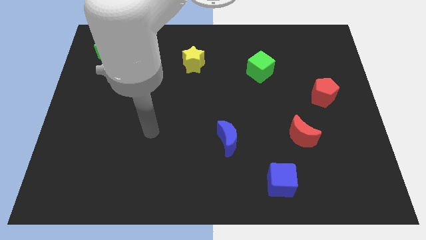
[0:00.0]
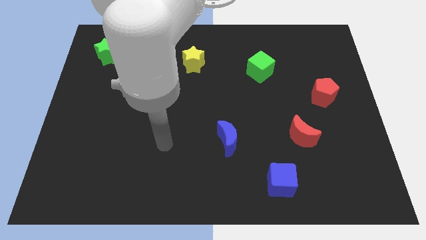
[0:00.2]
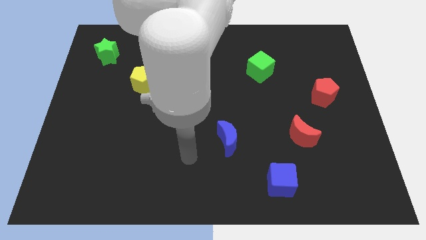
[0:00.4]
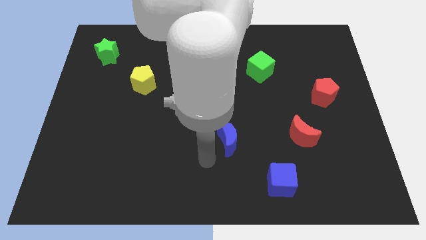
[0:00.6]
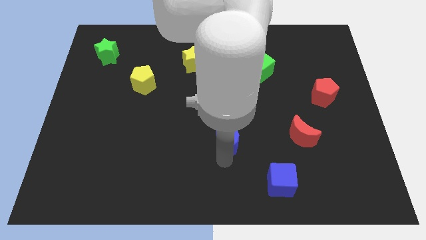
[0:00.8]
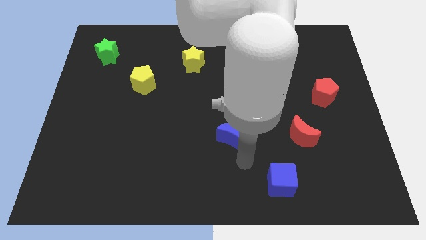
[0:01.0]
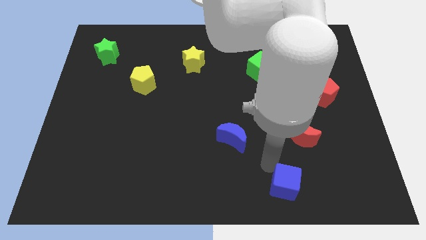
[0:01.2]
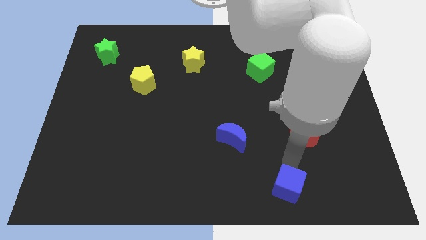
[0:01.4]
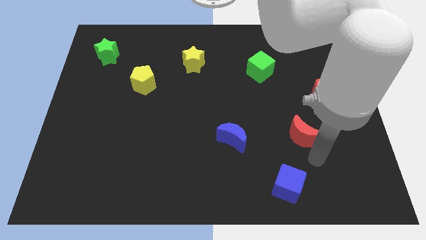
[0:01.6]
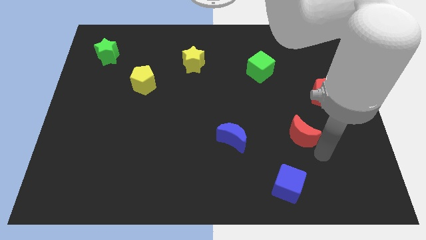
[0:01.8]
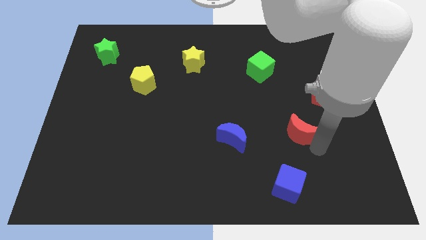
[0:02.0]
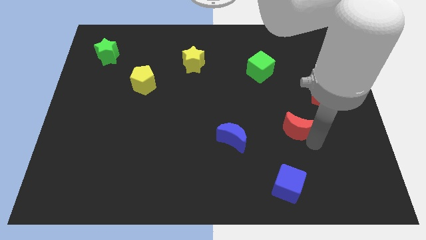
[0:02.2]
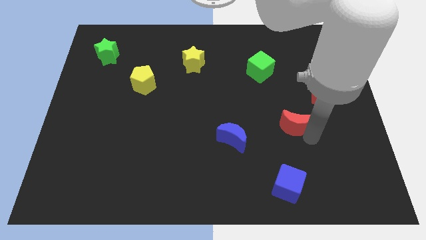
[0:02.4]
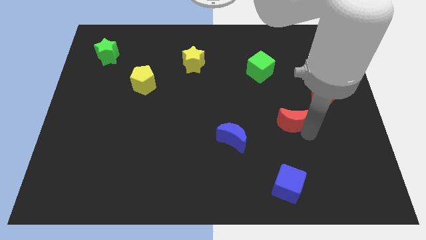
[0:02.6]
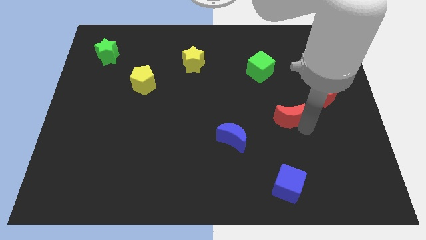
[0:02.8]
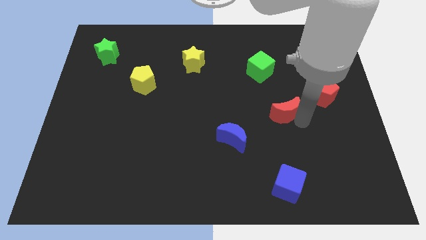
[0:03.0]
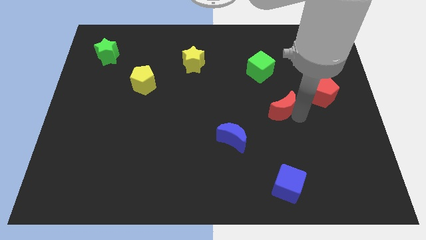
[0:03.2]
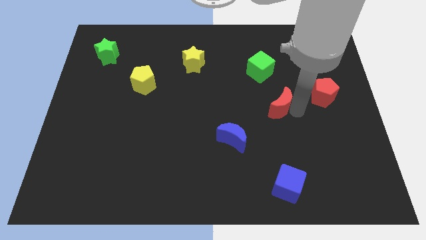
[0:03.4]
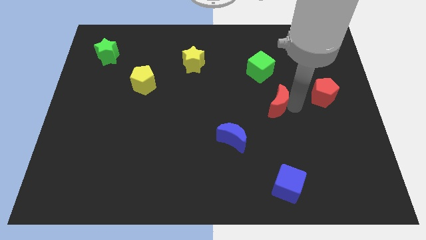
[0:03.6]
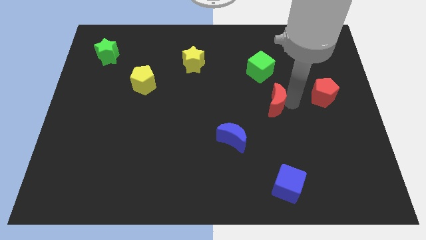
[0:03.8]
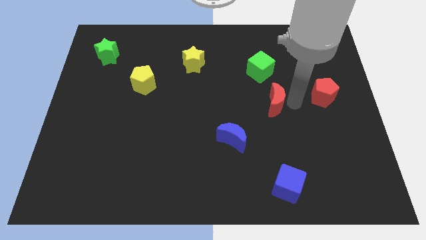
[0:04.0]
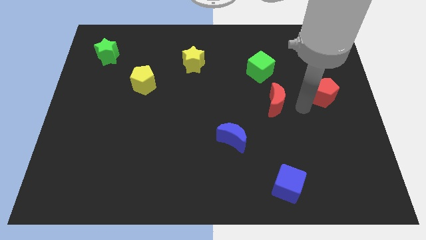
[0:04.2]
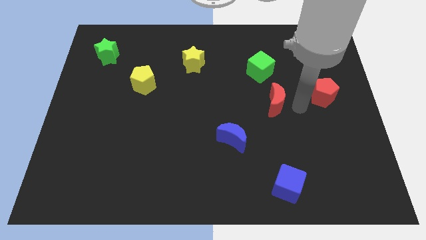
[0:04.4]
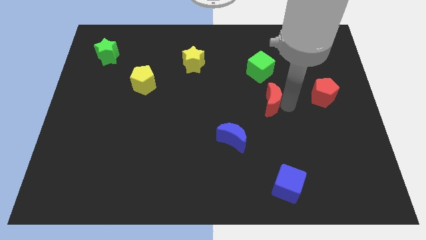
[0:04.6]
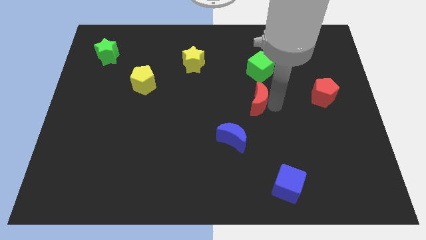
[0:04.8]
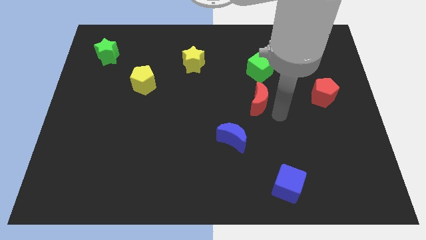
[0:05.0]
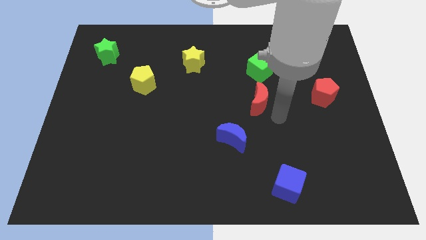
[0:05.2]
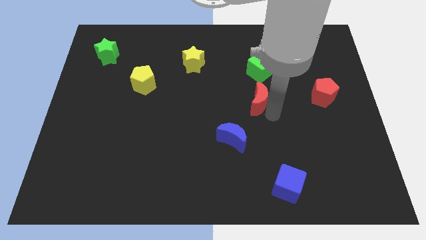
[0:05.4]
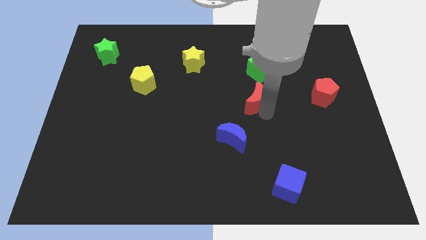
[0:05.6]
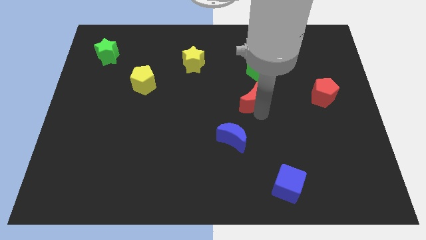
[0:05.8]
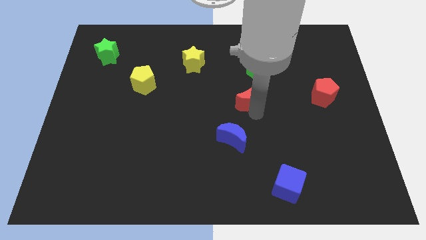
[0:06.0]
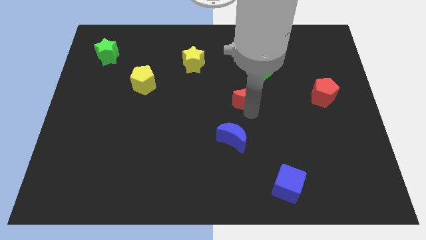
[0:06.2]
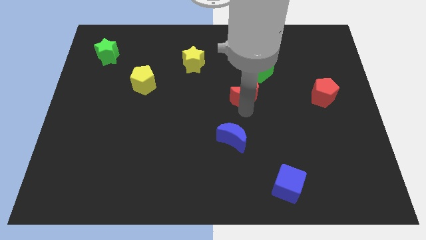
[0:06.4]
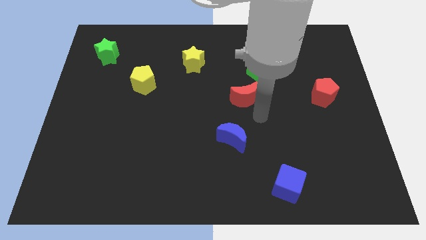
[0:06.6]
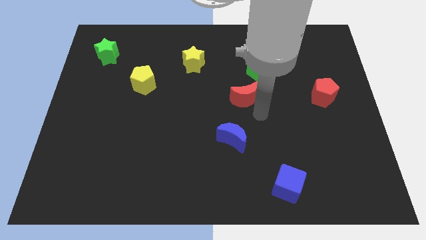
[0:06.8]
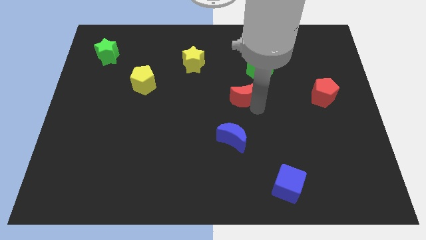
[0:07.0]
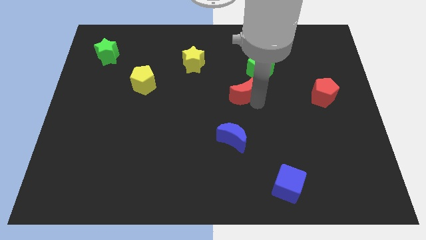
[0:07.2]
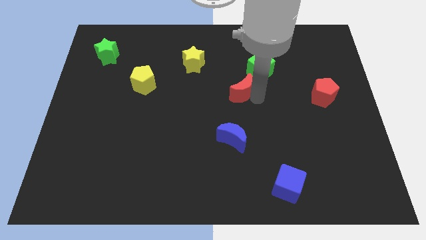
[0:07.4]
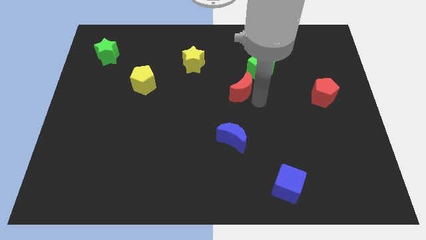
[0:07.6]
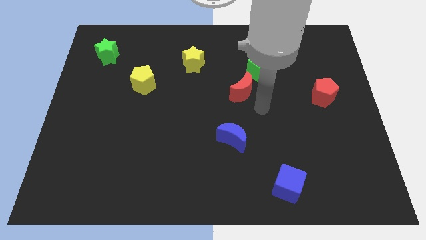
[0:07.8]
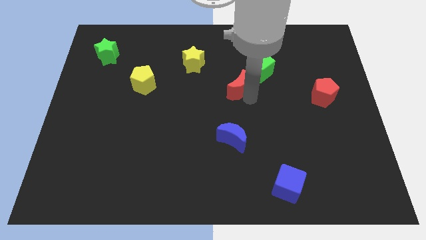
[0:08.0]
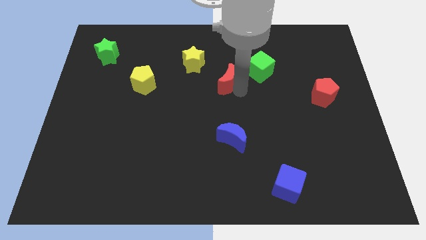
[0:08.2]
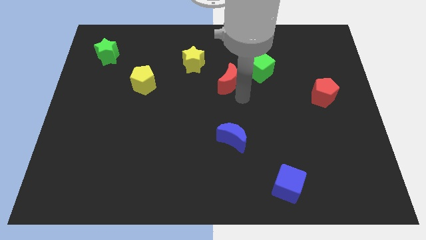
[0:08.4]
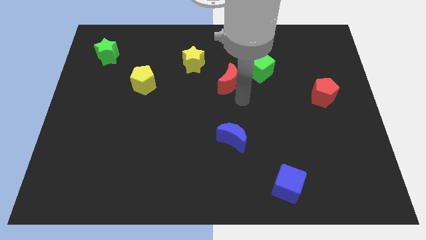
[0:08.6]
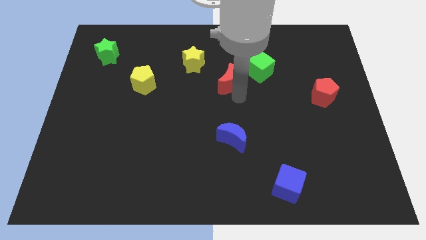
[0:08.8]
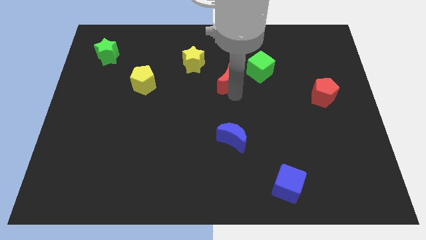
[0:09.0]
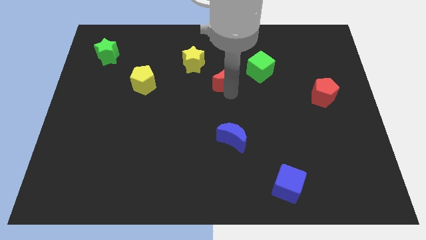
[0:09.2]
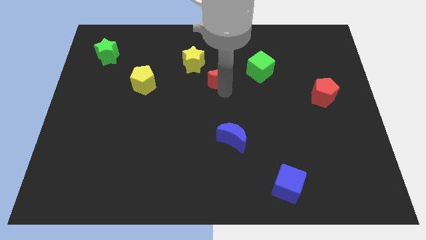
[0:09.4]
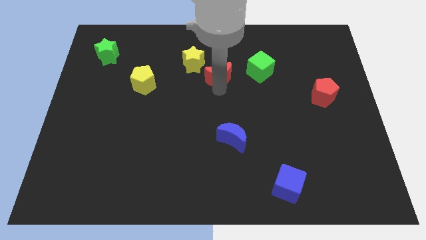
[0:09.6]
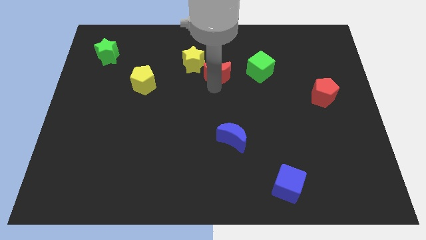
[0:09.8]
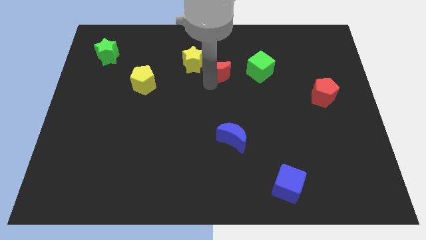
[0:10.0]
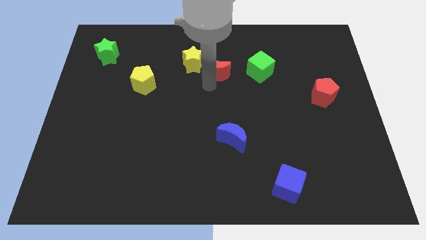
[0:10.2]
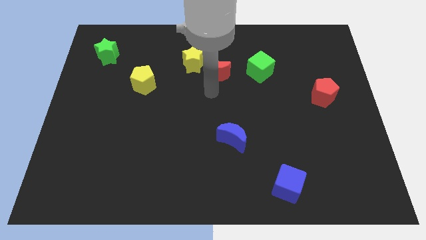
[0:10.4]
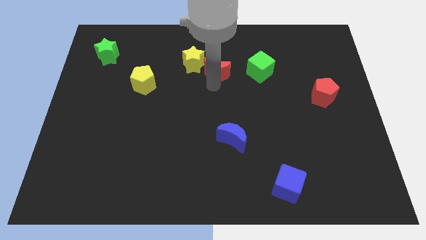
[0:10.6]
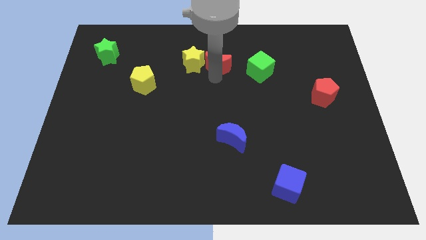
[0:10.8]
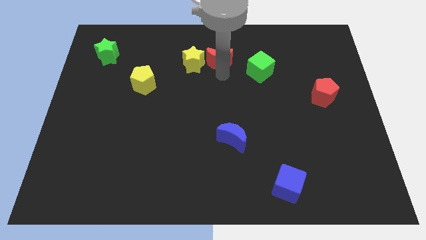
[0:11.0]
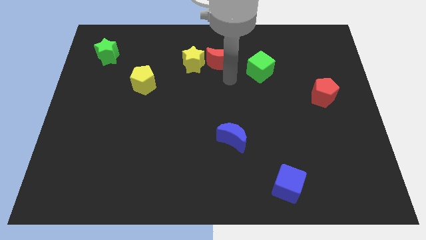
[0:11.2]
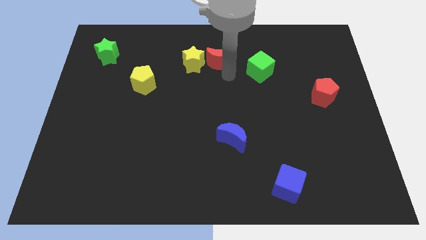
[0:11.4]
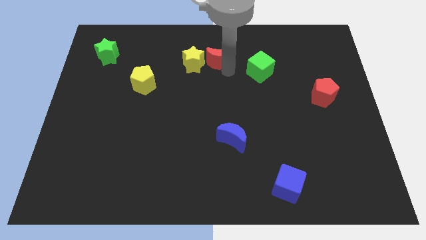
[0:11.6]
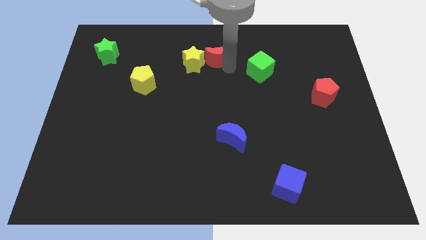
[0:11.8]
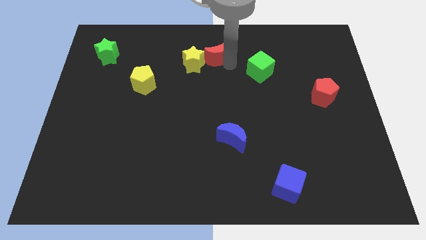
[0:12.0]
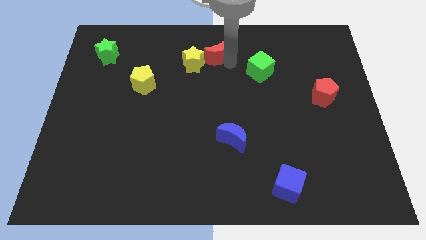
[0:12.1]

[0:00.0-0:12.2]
slide the red moon to the top

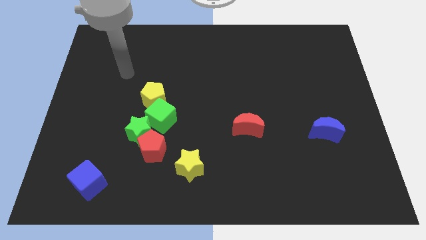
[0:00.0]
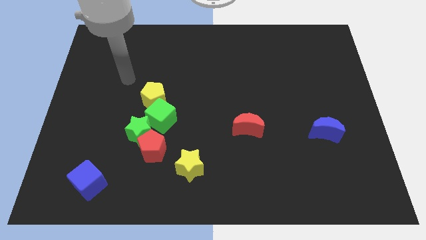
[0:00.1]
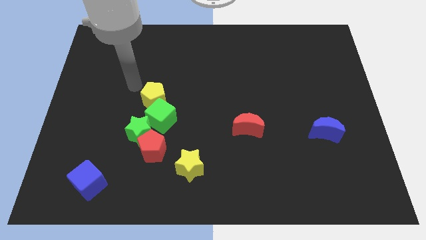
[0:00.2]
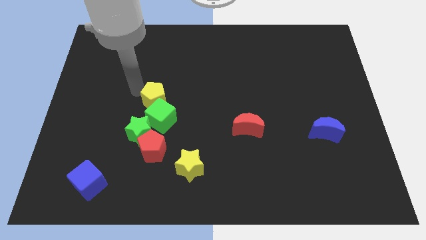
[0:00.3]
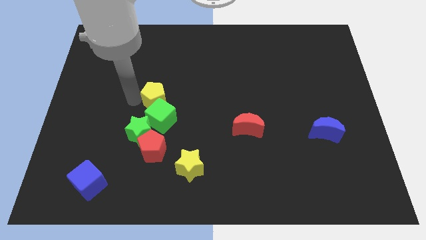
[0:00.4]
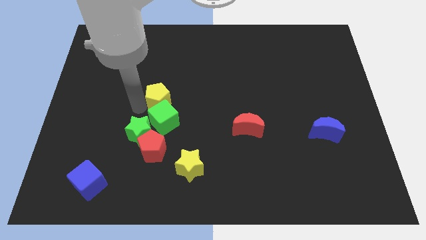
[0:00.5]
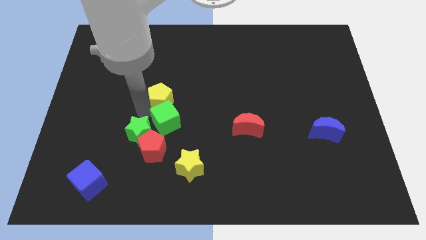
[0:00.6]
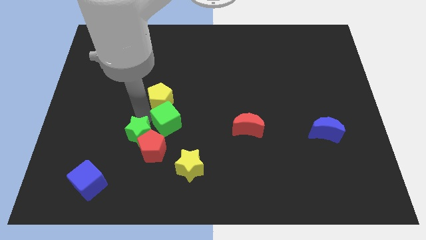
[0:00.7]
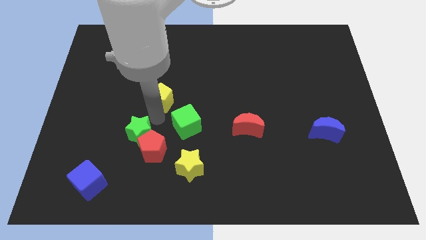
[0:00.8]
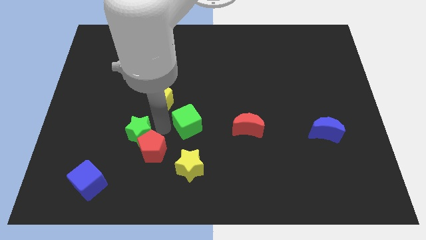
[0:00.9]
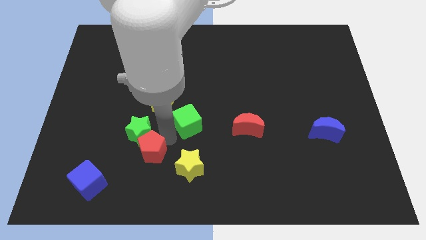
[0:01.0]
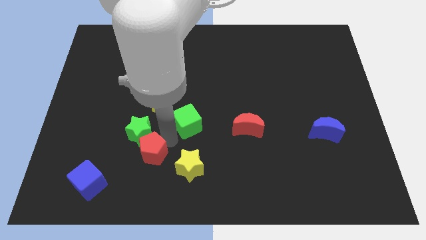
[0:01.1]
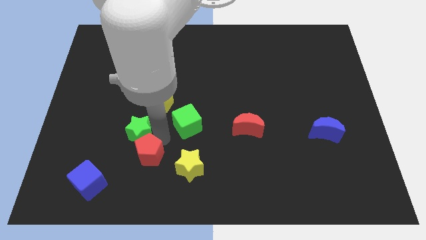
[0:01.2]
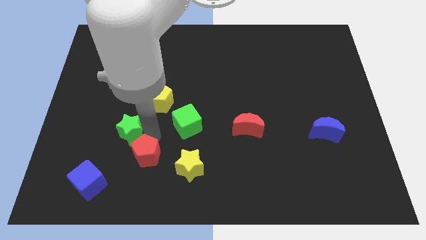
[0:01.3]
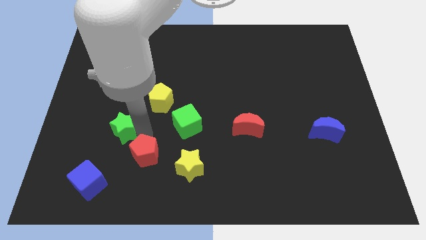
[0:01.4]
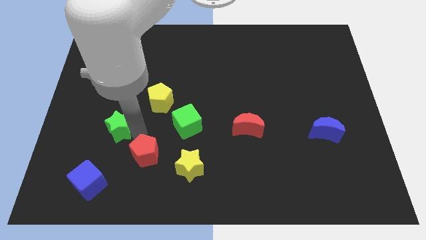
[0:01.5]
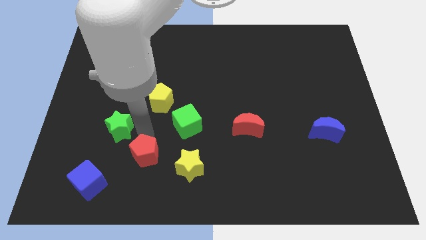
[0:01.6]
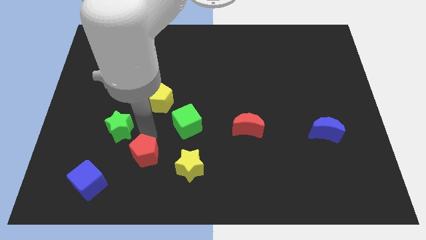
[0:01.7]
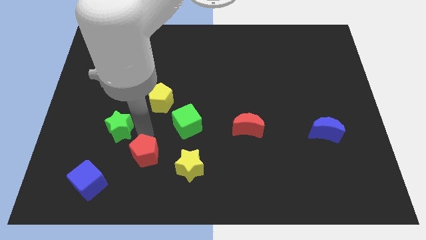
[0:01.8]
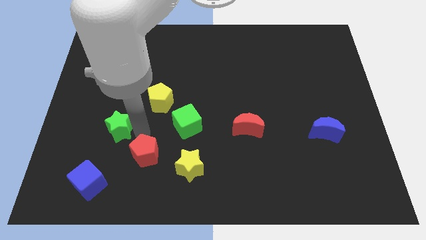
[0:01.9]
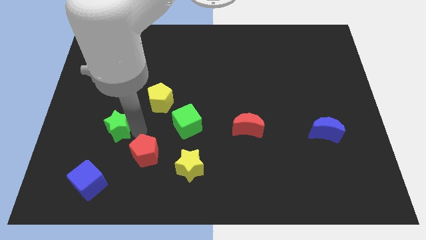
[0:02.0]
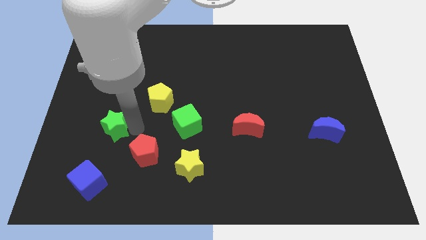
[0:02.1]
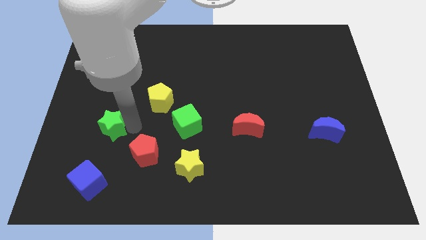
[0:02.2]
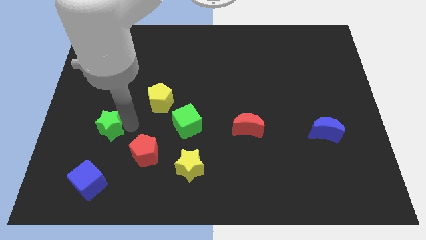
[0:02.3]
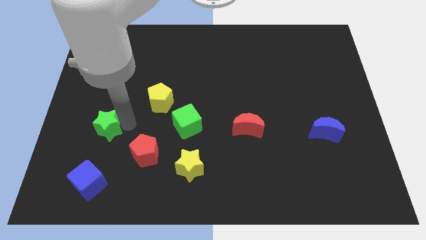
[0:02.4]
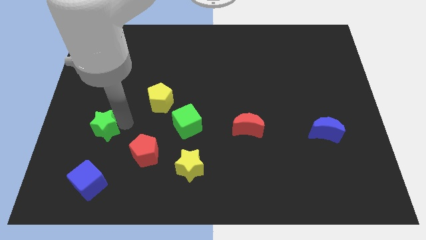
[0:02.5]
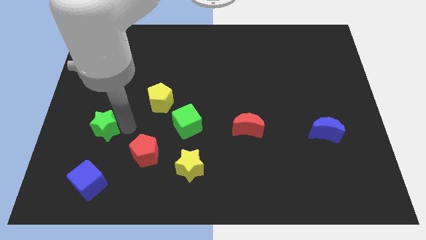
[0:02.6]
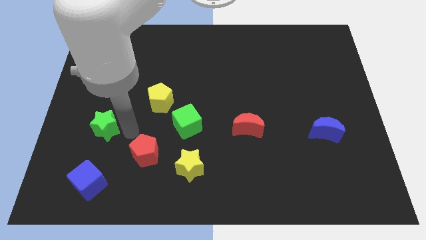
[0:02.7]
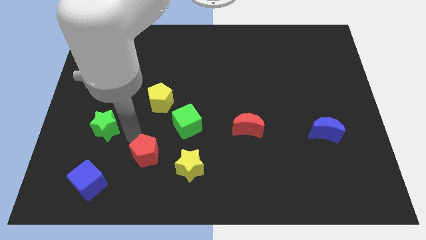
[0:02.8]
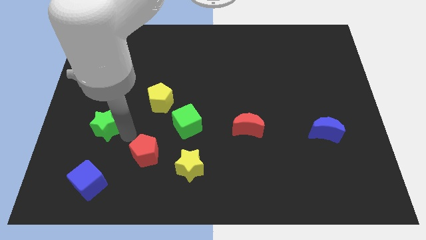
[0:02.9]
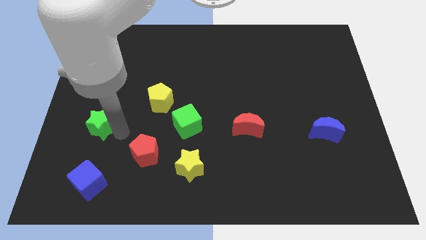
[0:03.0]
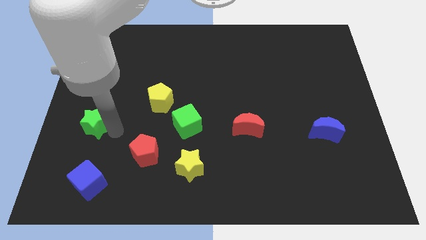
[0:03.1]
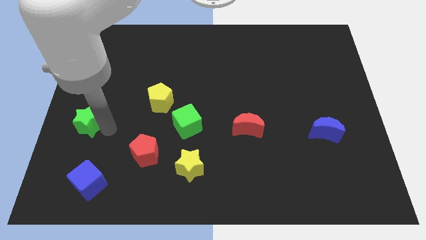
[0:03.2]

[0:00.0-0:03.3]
slide the green star to the left side
